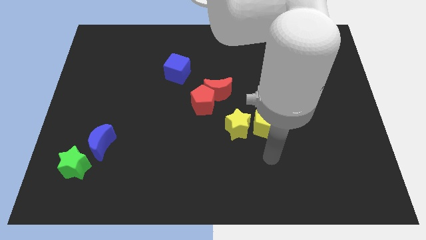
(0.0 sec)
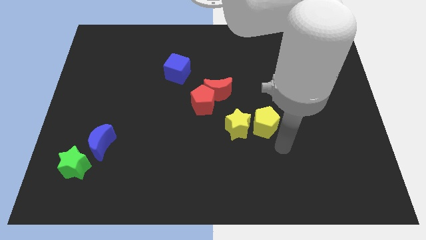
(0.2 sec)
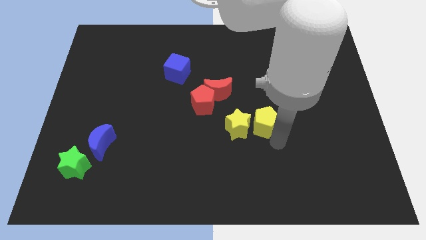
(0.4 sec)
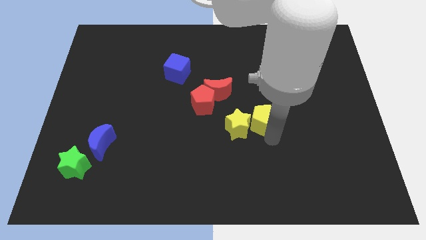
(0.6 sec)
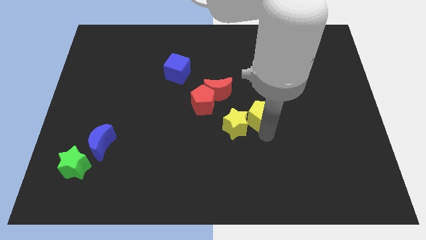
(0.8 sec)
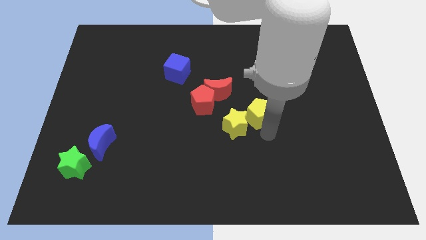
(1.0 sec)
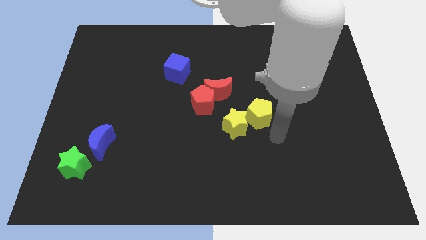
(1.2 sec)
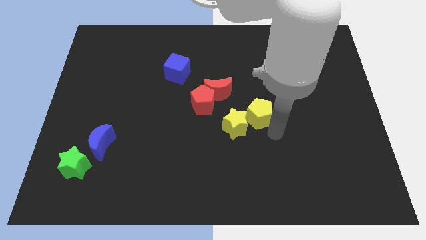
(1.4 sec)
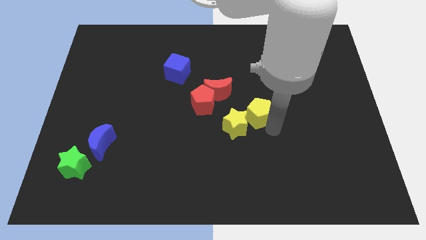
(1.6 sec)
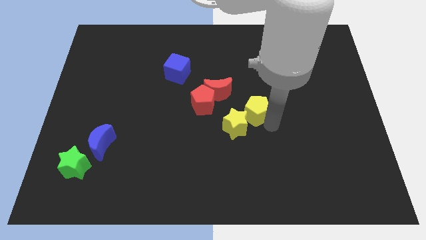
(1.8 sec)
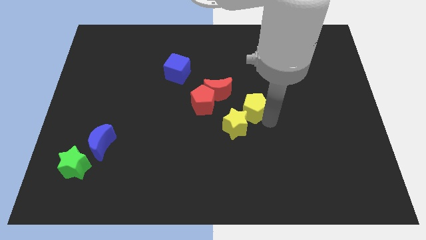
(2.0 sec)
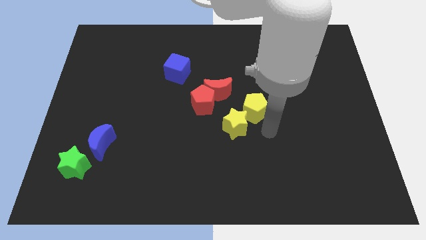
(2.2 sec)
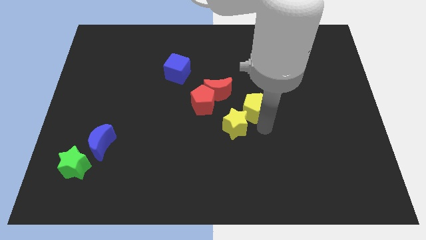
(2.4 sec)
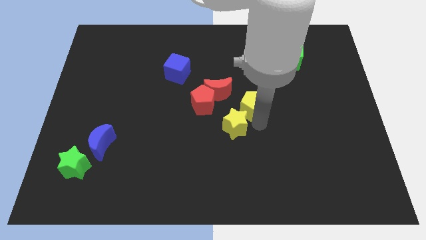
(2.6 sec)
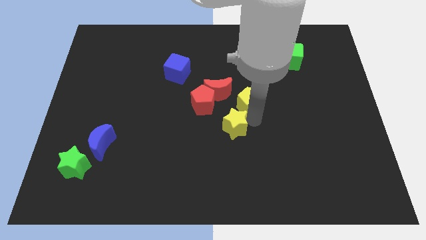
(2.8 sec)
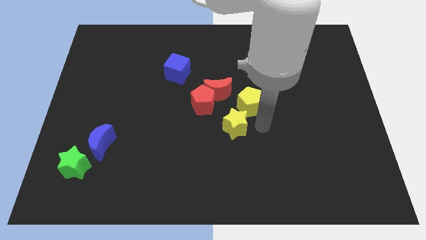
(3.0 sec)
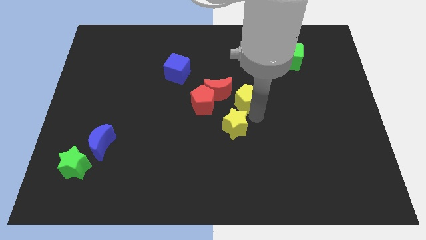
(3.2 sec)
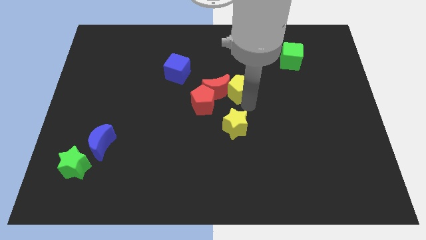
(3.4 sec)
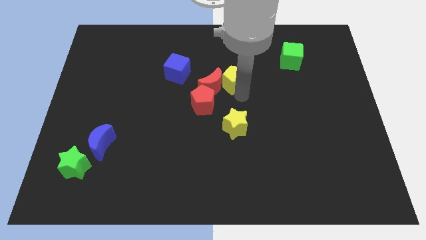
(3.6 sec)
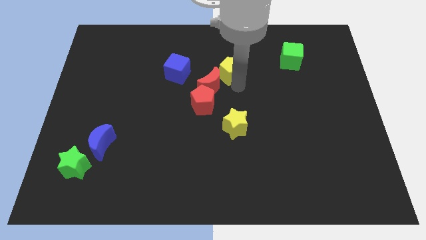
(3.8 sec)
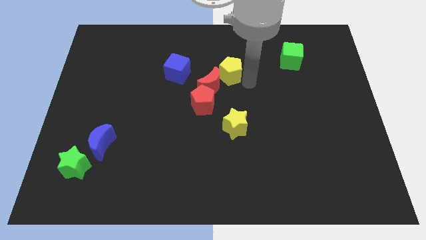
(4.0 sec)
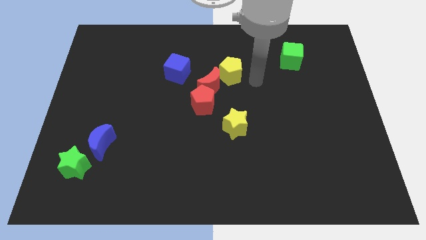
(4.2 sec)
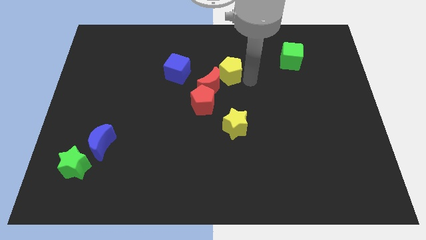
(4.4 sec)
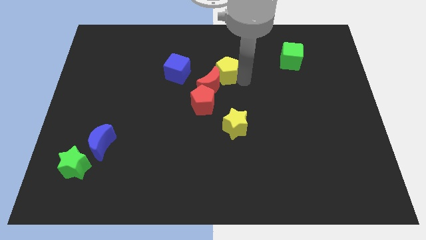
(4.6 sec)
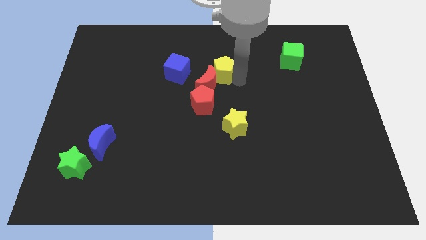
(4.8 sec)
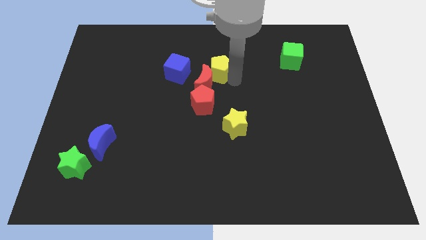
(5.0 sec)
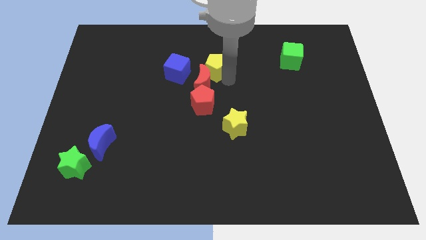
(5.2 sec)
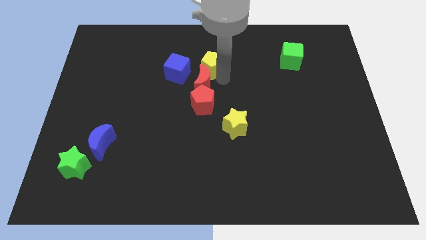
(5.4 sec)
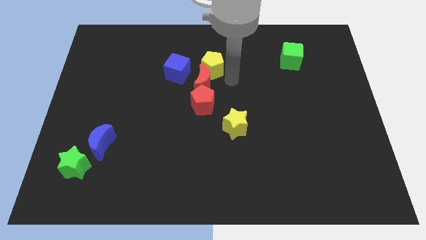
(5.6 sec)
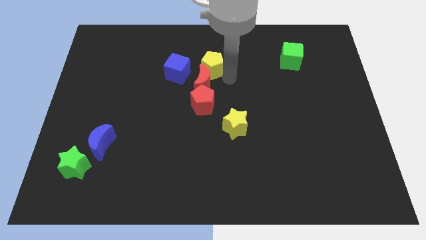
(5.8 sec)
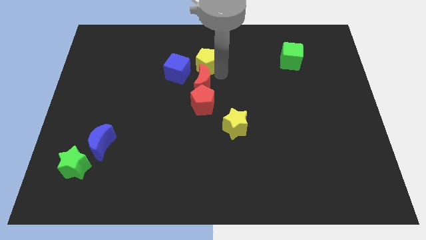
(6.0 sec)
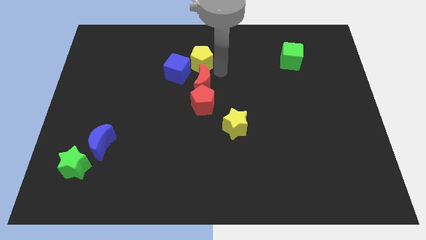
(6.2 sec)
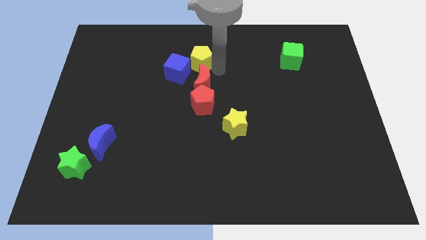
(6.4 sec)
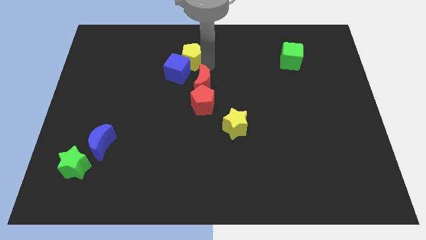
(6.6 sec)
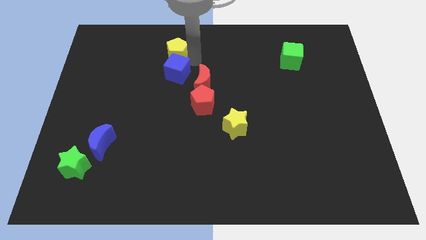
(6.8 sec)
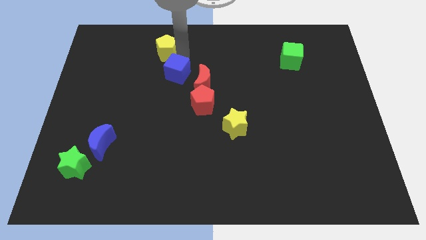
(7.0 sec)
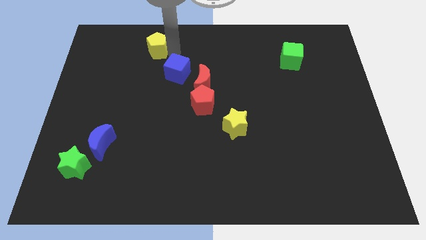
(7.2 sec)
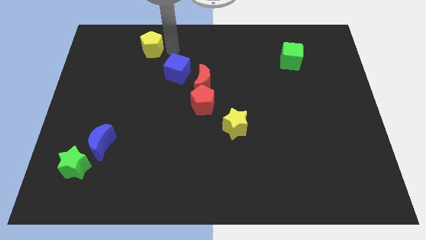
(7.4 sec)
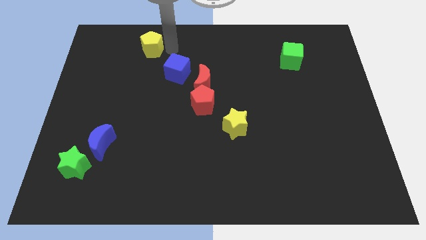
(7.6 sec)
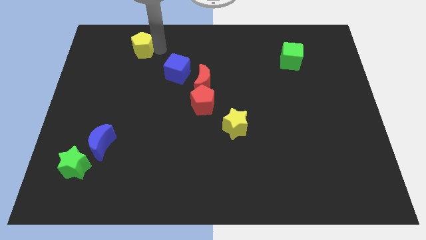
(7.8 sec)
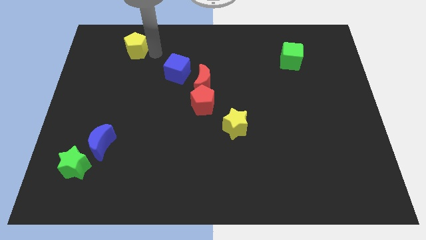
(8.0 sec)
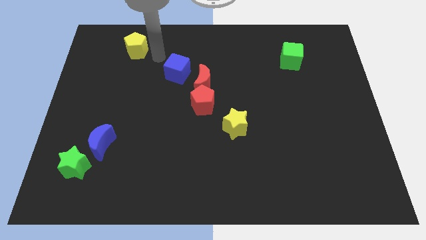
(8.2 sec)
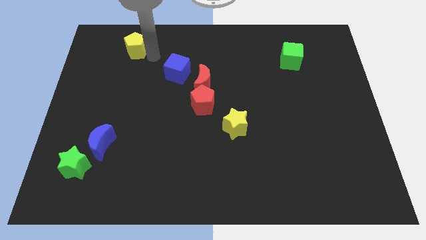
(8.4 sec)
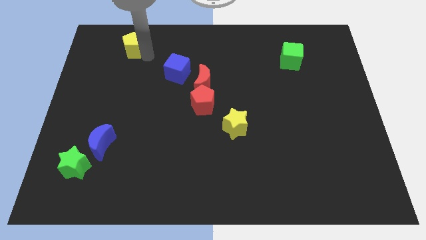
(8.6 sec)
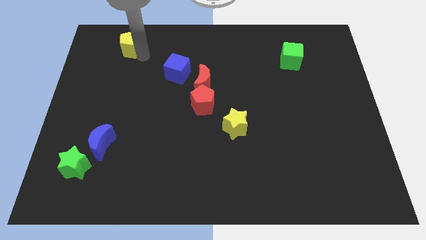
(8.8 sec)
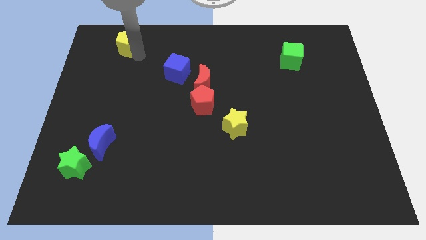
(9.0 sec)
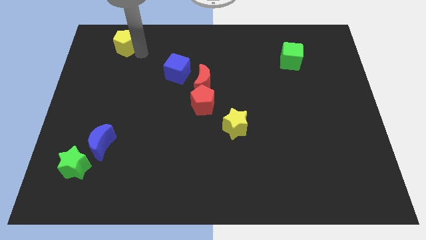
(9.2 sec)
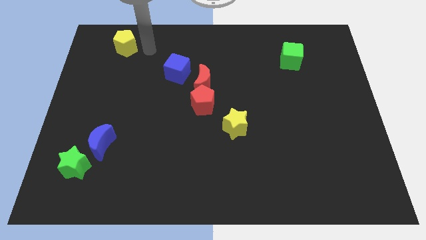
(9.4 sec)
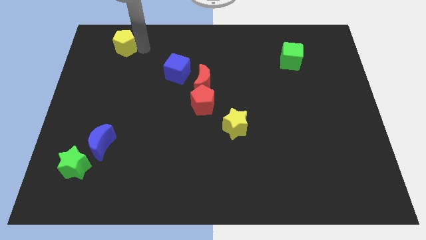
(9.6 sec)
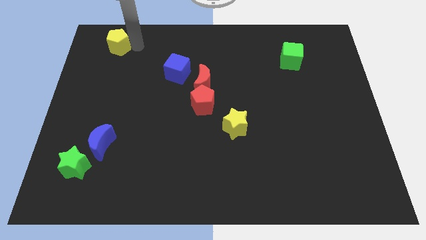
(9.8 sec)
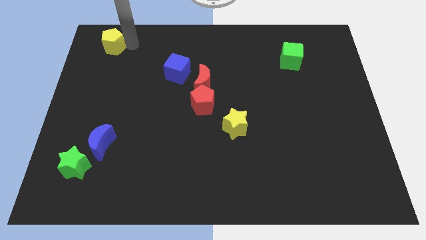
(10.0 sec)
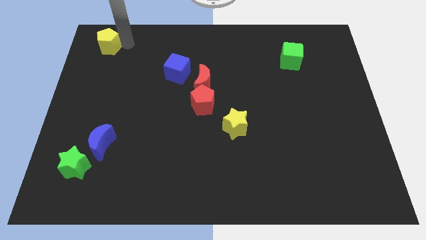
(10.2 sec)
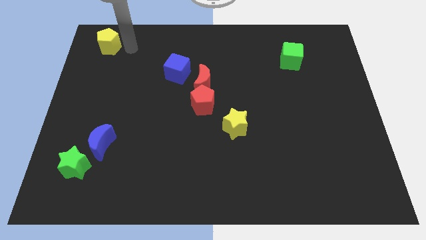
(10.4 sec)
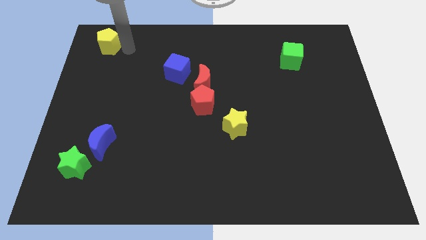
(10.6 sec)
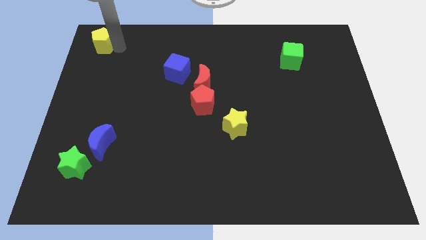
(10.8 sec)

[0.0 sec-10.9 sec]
move the yellow pentagon to the top left of the board

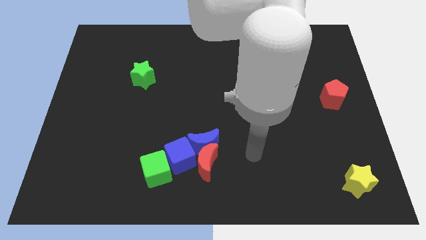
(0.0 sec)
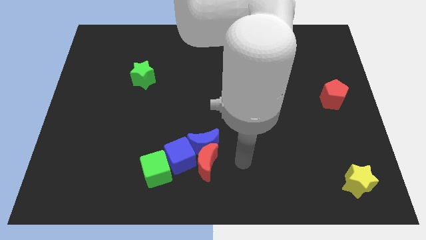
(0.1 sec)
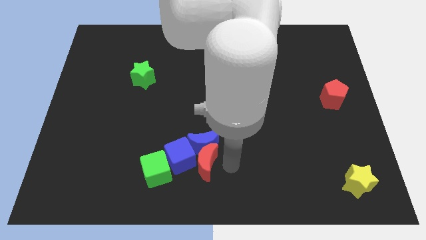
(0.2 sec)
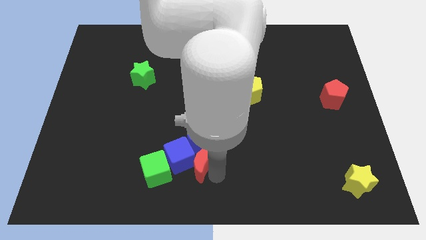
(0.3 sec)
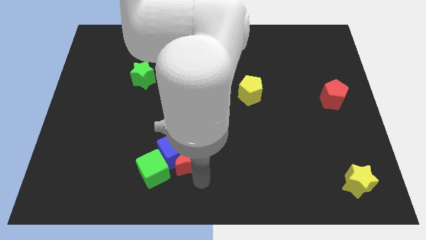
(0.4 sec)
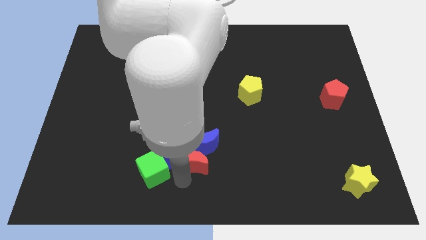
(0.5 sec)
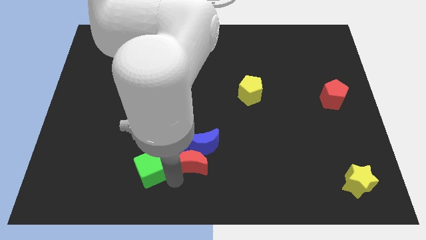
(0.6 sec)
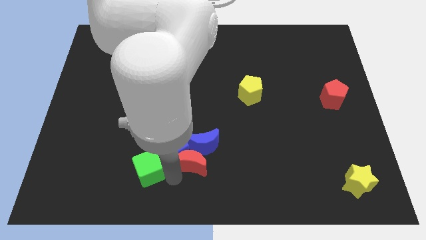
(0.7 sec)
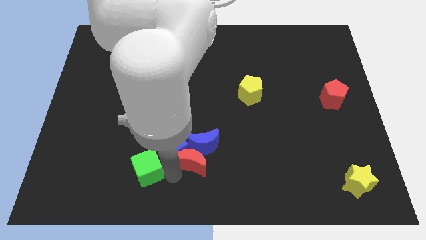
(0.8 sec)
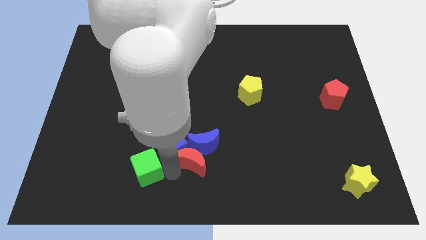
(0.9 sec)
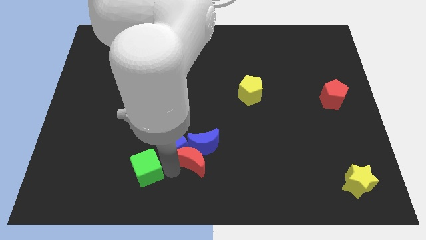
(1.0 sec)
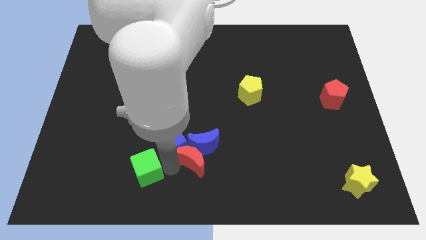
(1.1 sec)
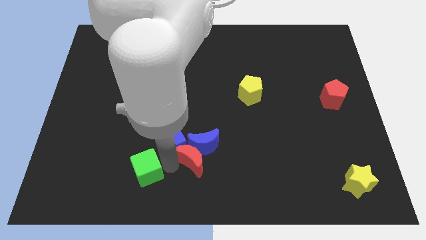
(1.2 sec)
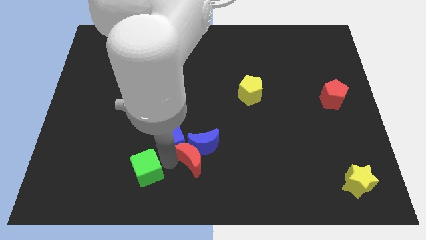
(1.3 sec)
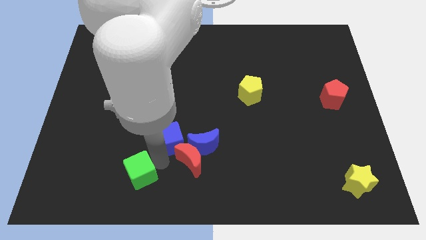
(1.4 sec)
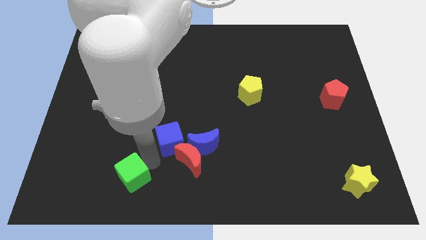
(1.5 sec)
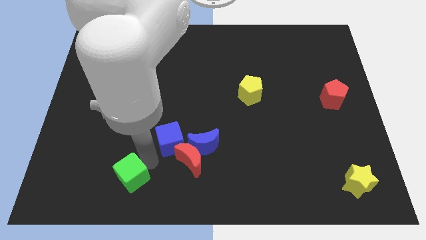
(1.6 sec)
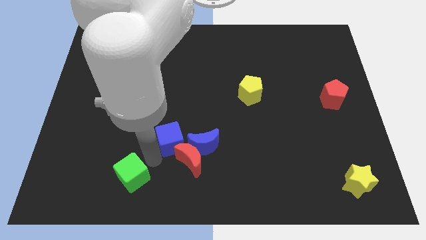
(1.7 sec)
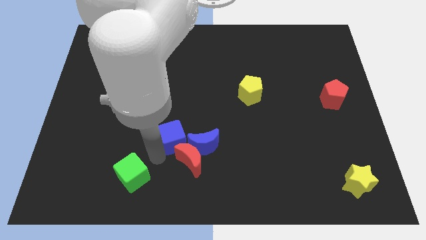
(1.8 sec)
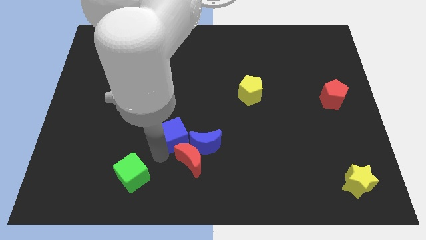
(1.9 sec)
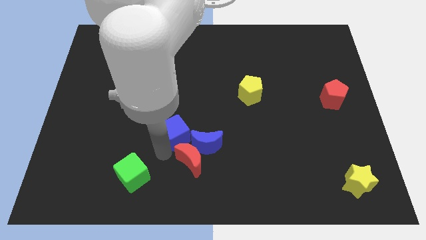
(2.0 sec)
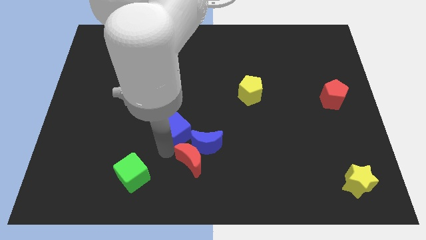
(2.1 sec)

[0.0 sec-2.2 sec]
put the blue cube to the middle of the board
